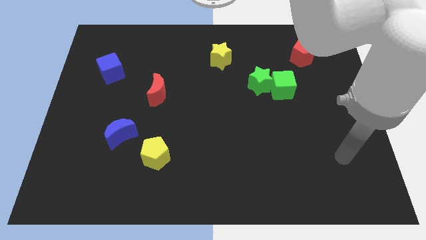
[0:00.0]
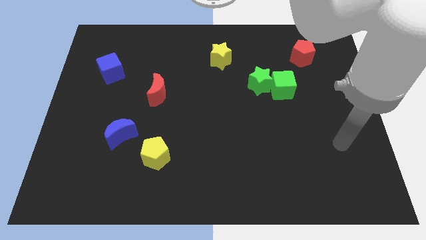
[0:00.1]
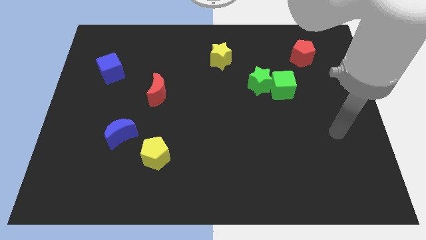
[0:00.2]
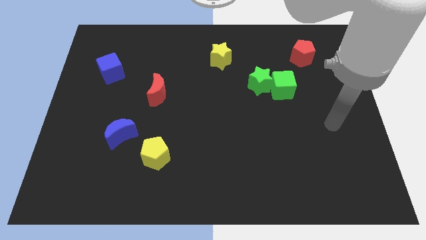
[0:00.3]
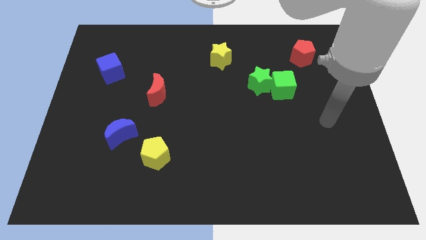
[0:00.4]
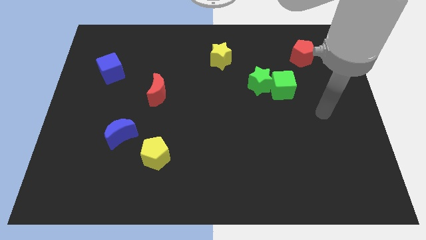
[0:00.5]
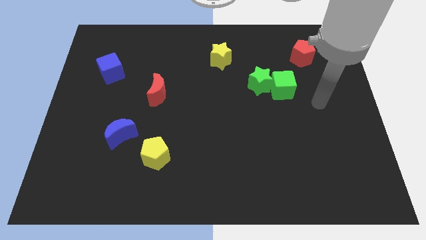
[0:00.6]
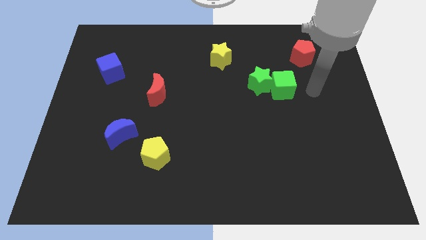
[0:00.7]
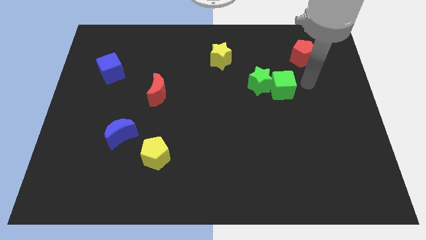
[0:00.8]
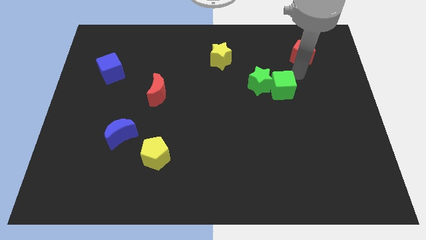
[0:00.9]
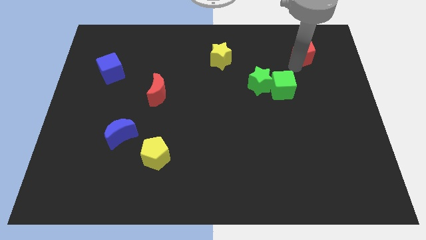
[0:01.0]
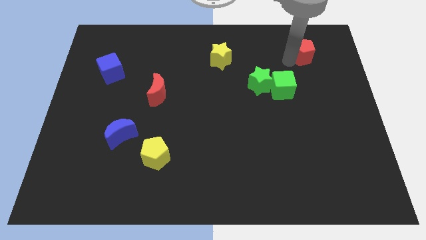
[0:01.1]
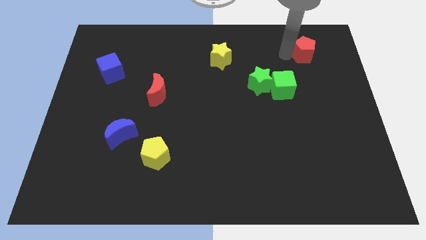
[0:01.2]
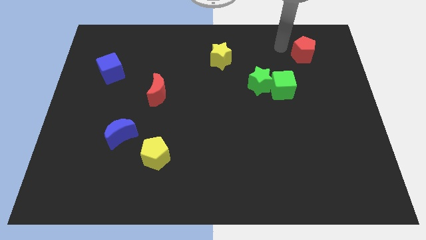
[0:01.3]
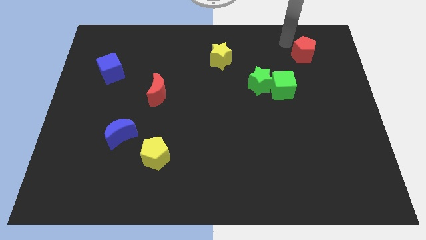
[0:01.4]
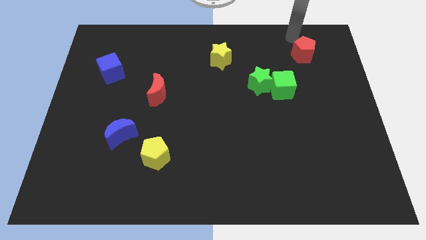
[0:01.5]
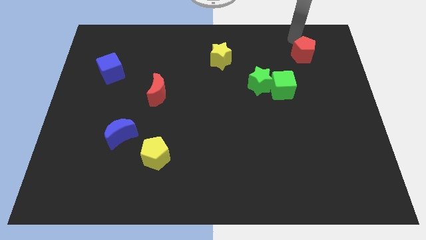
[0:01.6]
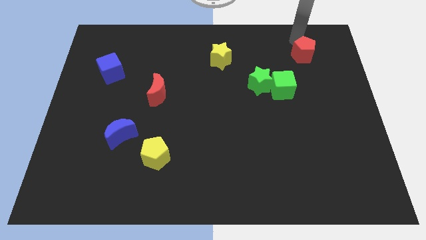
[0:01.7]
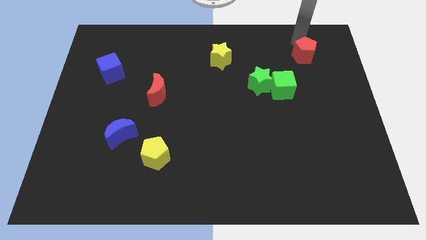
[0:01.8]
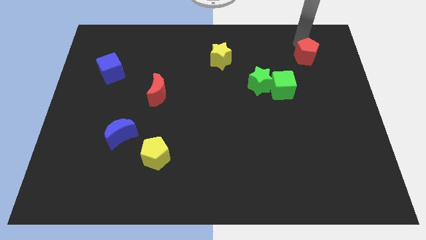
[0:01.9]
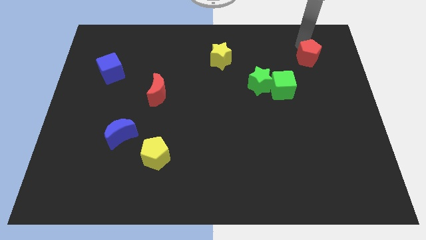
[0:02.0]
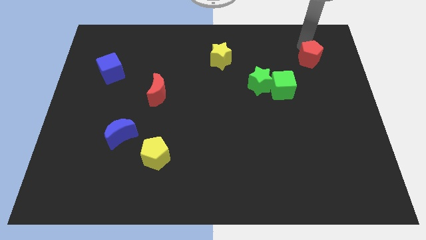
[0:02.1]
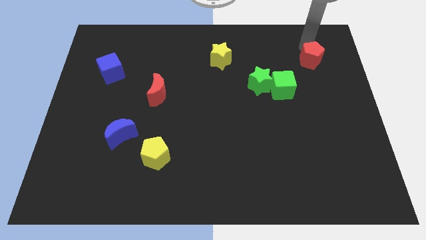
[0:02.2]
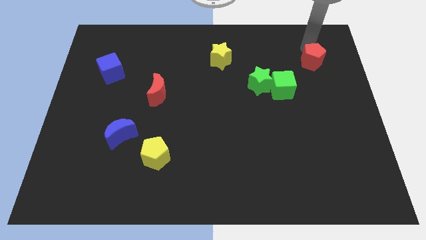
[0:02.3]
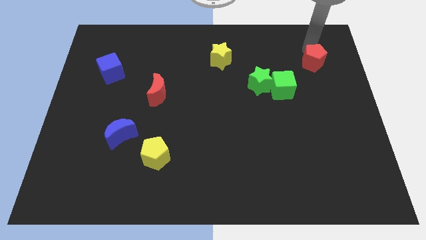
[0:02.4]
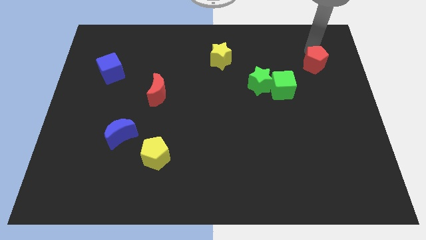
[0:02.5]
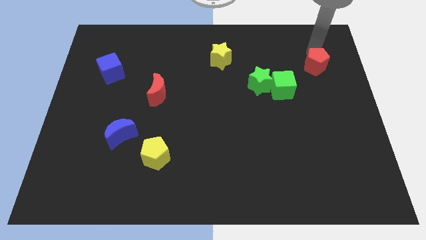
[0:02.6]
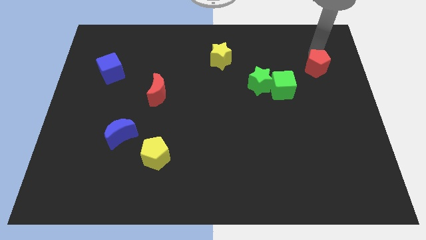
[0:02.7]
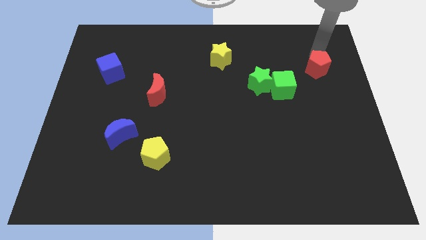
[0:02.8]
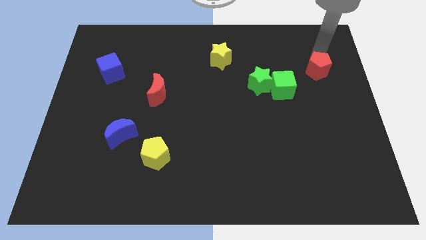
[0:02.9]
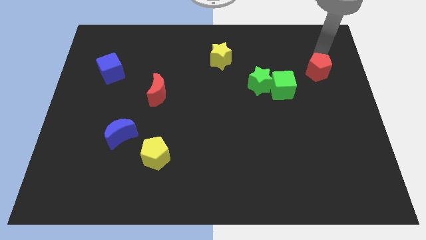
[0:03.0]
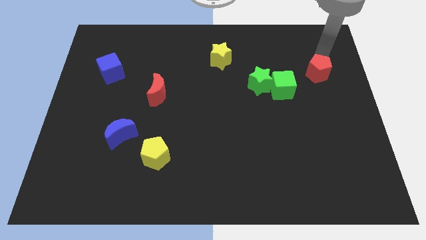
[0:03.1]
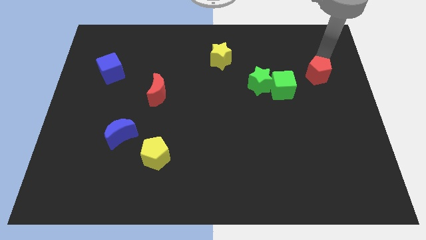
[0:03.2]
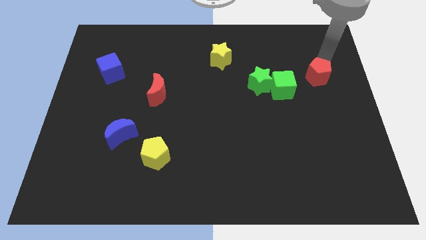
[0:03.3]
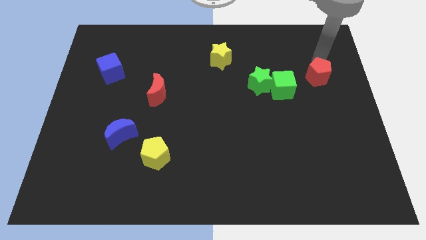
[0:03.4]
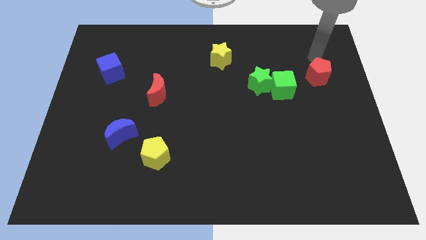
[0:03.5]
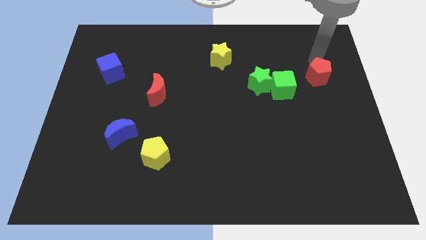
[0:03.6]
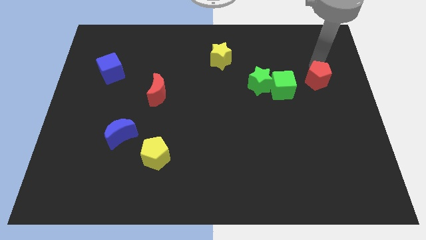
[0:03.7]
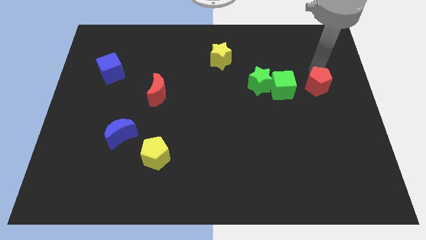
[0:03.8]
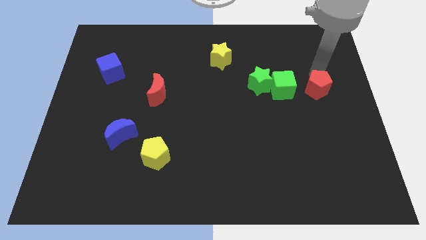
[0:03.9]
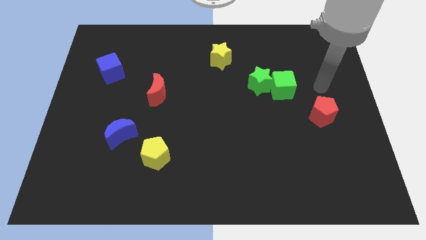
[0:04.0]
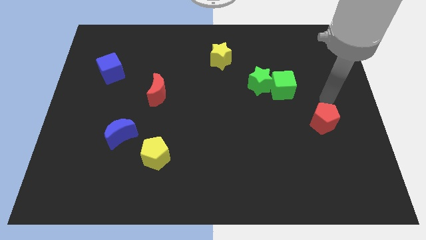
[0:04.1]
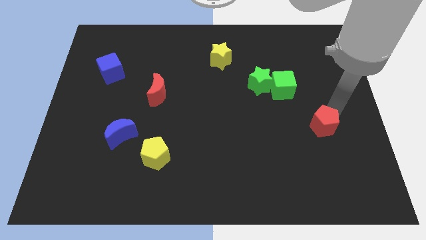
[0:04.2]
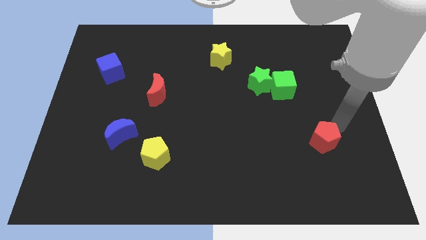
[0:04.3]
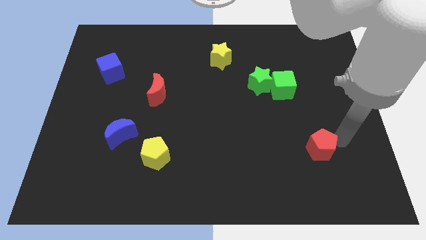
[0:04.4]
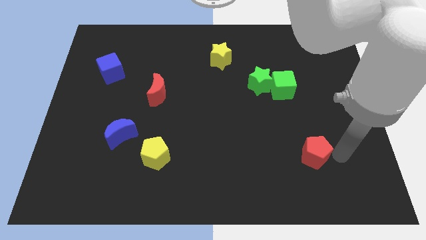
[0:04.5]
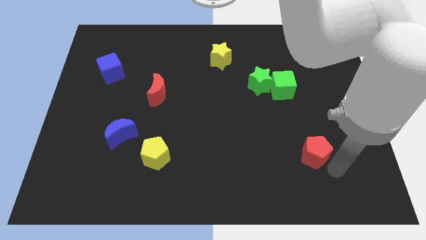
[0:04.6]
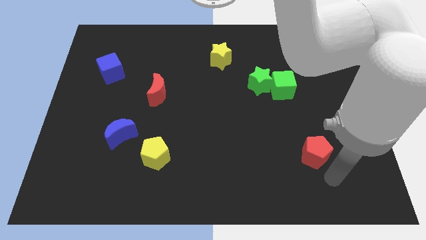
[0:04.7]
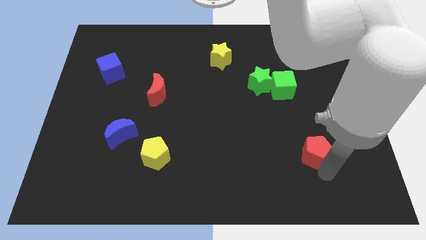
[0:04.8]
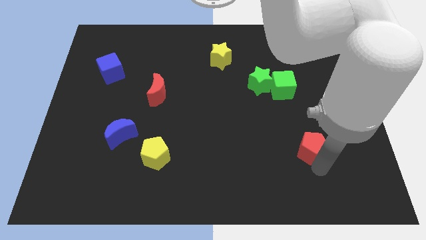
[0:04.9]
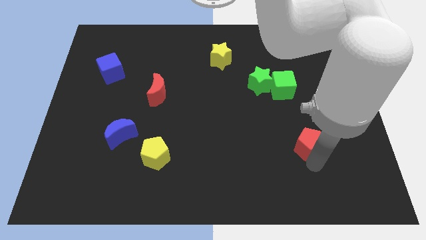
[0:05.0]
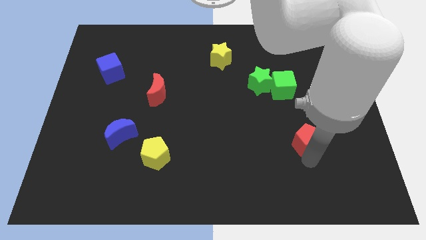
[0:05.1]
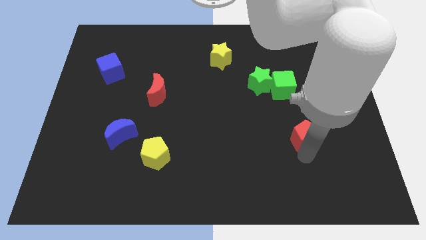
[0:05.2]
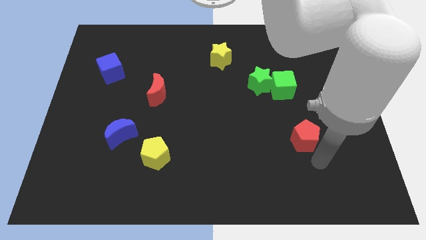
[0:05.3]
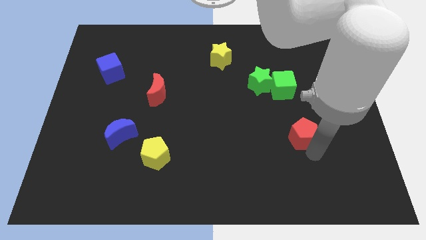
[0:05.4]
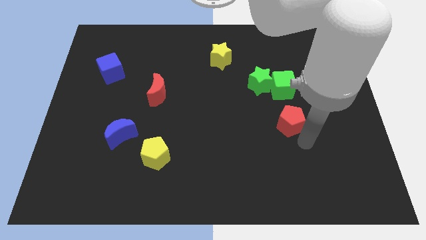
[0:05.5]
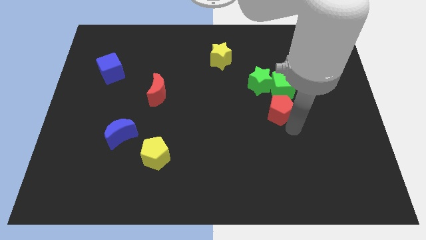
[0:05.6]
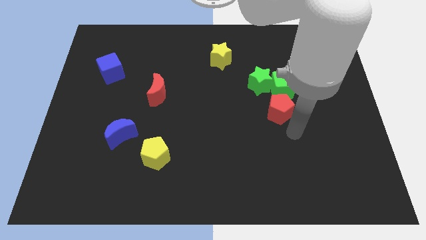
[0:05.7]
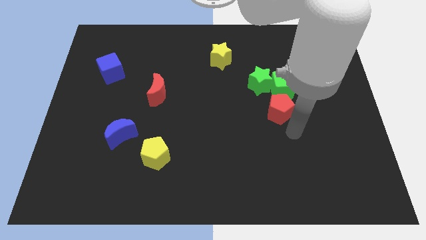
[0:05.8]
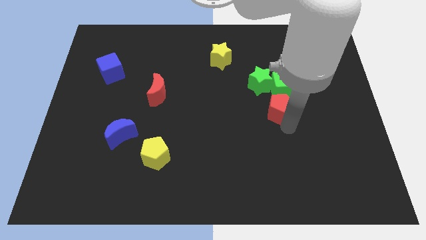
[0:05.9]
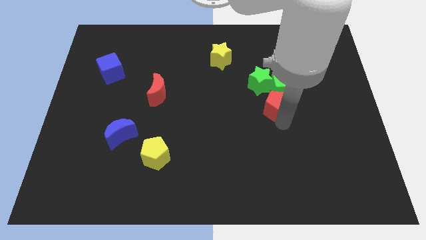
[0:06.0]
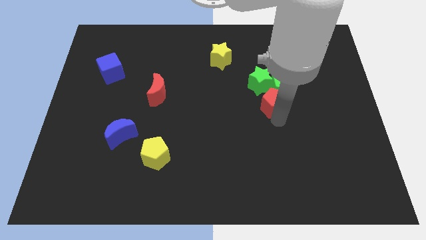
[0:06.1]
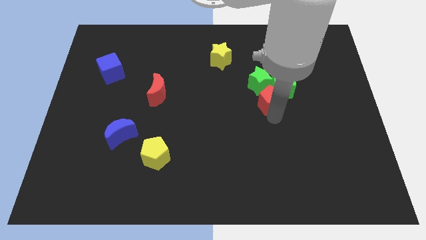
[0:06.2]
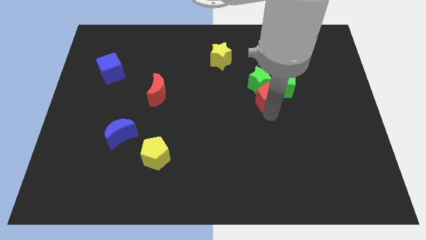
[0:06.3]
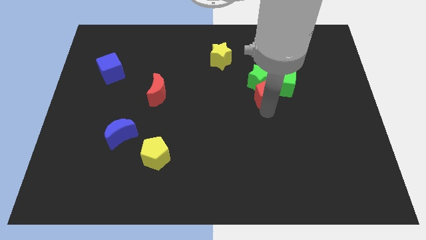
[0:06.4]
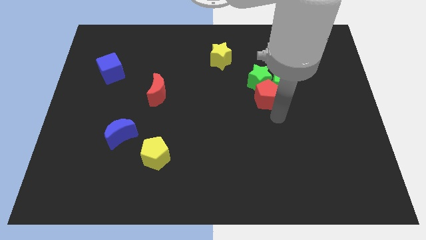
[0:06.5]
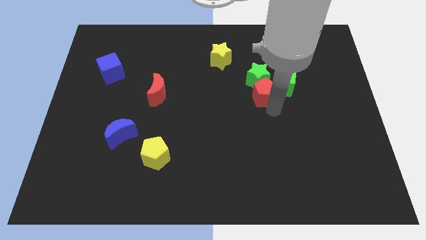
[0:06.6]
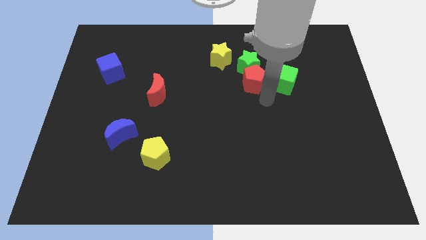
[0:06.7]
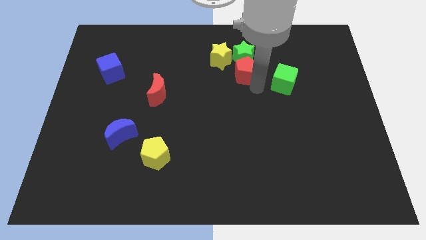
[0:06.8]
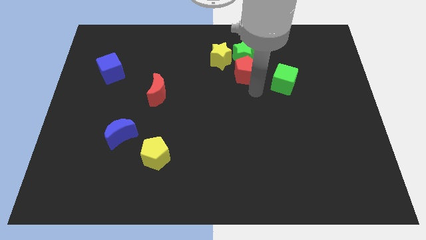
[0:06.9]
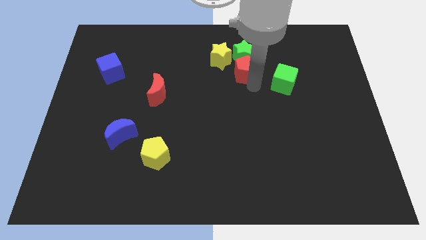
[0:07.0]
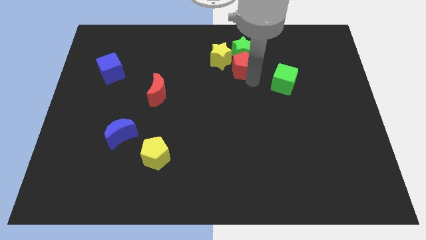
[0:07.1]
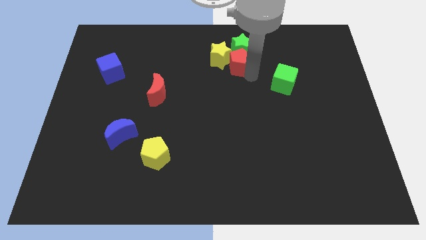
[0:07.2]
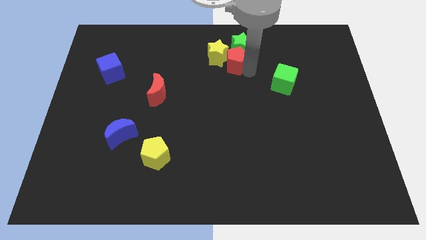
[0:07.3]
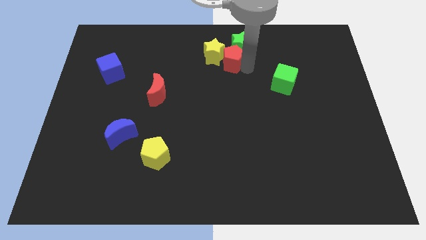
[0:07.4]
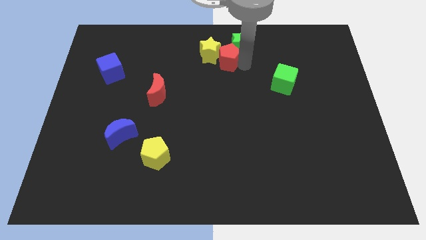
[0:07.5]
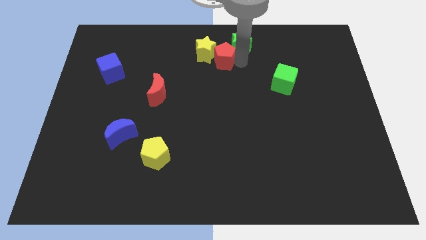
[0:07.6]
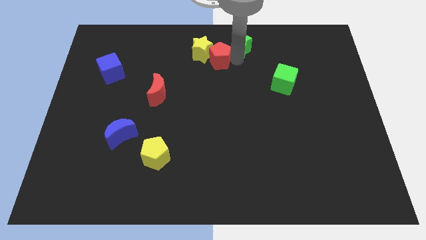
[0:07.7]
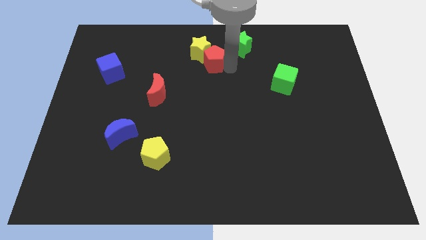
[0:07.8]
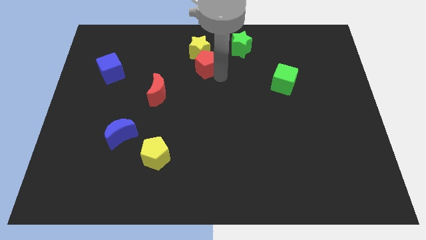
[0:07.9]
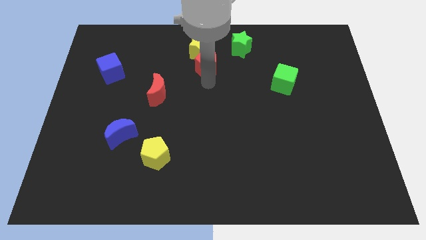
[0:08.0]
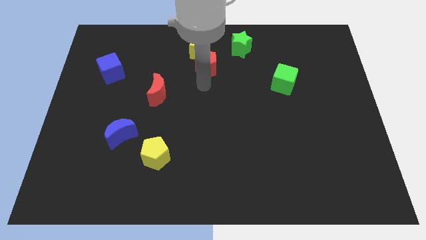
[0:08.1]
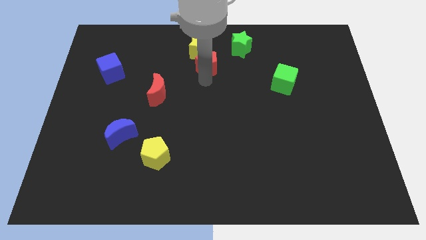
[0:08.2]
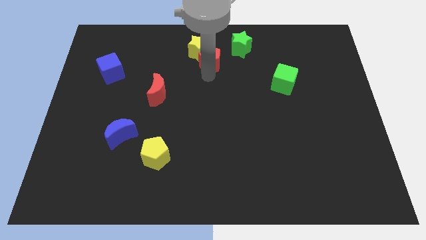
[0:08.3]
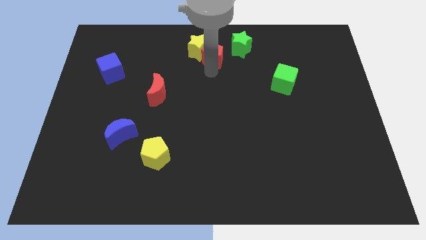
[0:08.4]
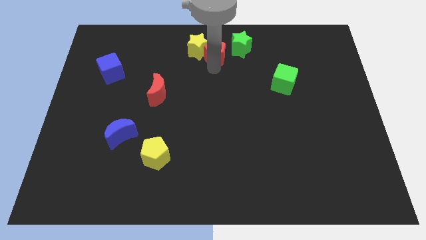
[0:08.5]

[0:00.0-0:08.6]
push the red pentagon to the top side
